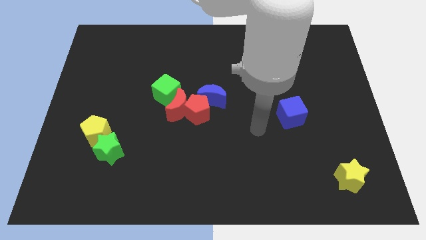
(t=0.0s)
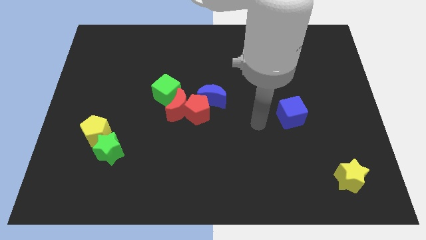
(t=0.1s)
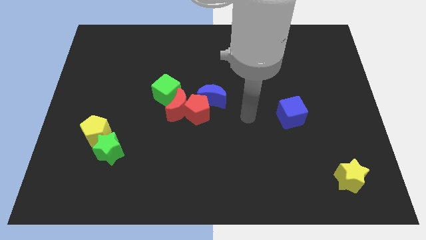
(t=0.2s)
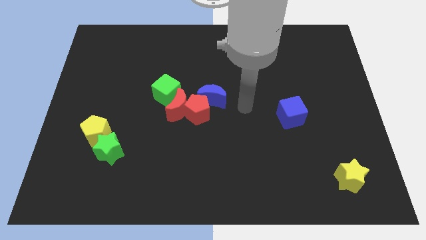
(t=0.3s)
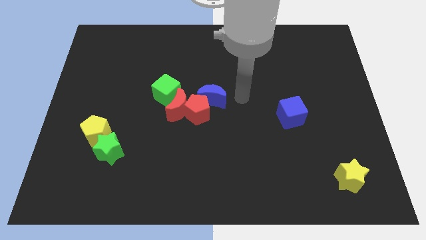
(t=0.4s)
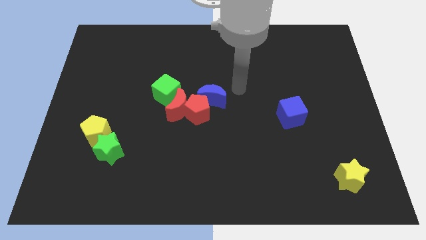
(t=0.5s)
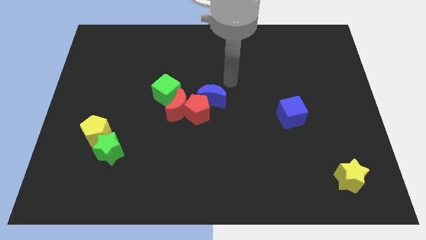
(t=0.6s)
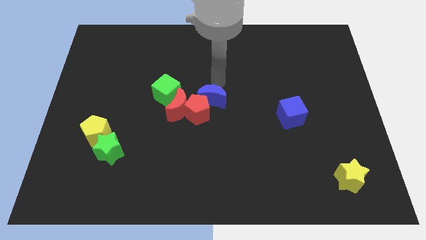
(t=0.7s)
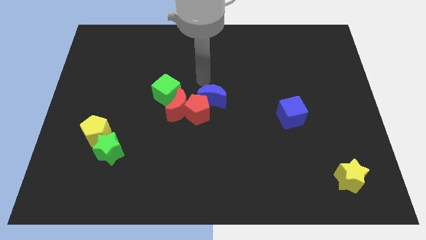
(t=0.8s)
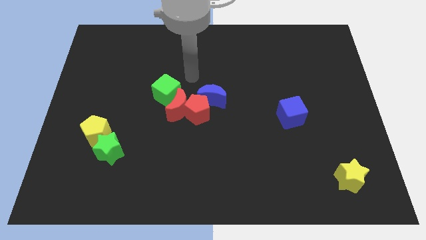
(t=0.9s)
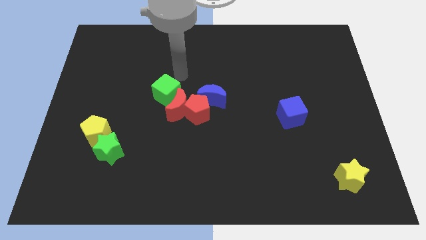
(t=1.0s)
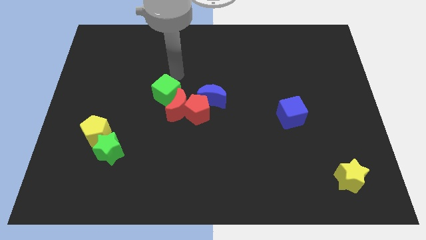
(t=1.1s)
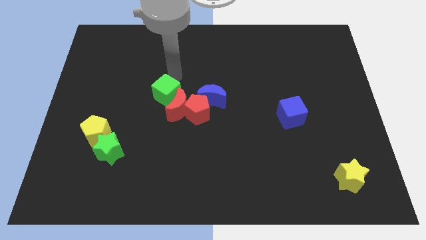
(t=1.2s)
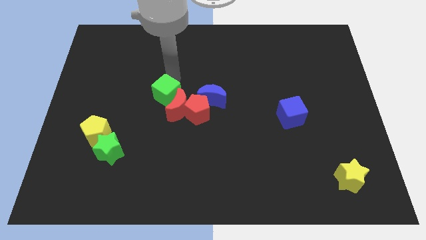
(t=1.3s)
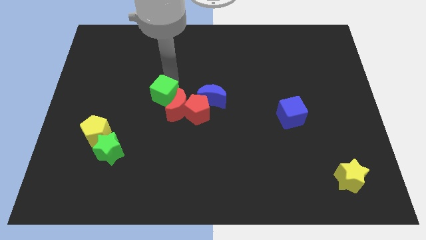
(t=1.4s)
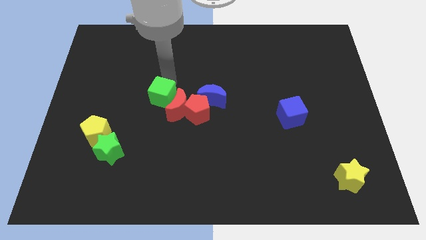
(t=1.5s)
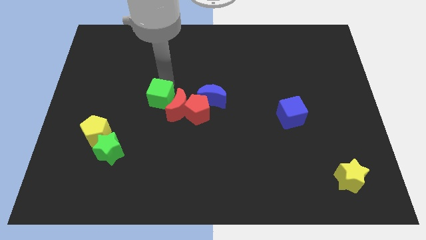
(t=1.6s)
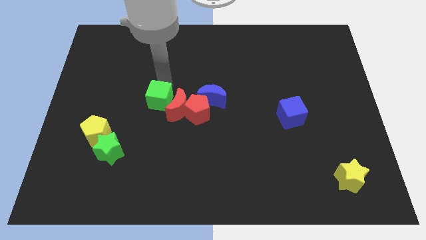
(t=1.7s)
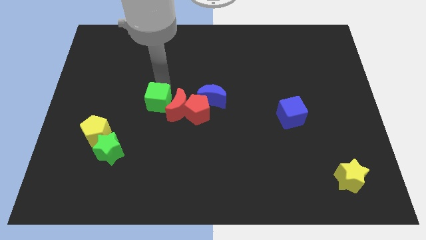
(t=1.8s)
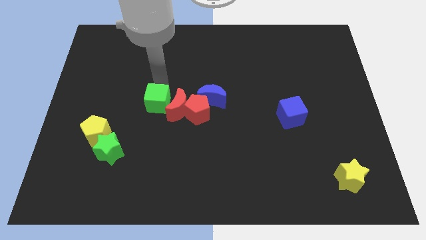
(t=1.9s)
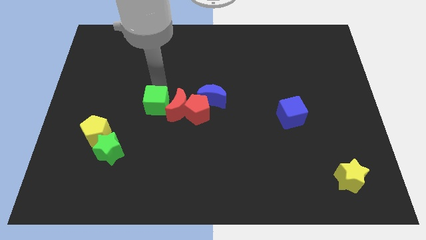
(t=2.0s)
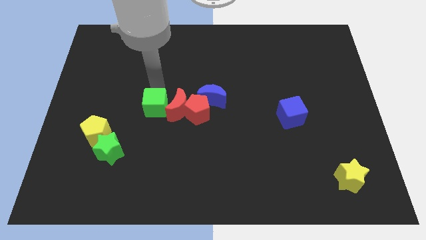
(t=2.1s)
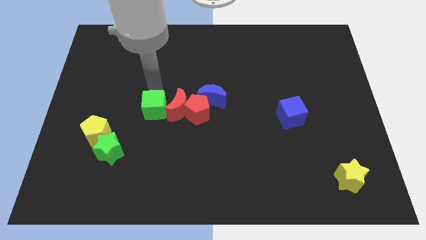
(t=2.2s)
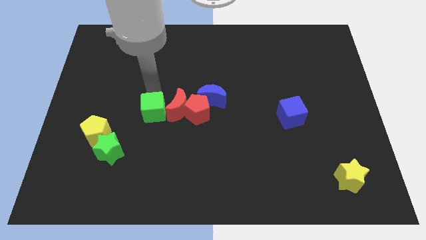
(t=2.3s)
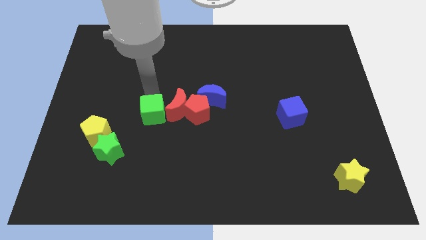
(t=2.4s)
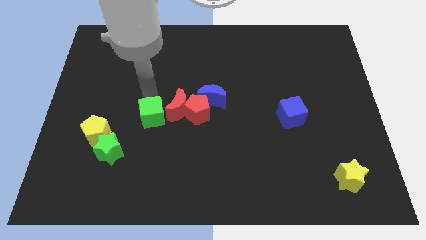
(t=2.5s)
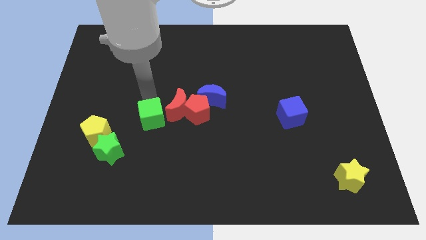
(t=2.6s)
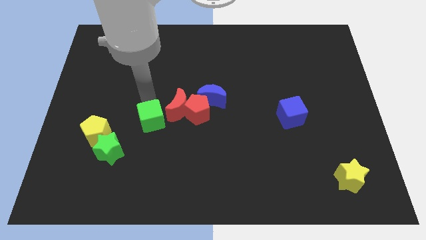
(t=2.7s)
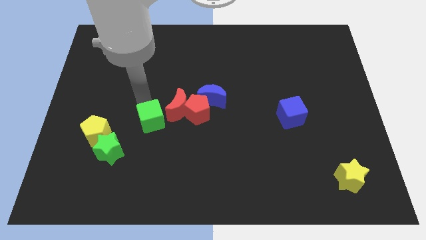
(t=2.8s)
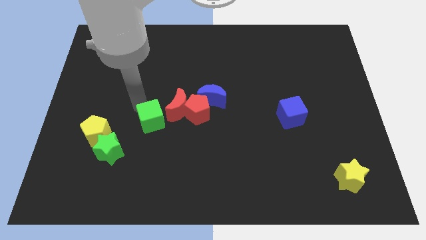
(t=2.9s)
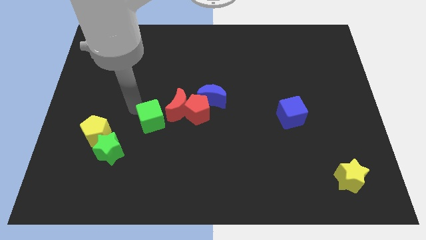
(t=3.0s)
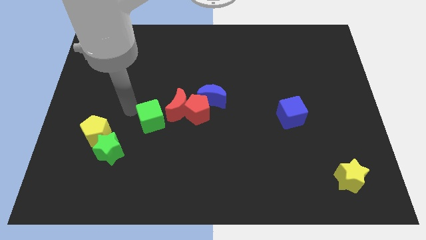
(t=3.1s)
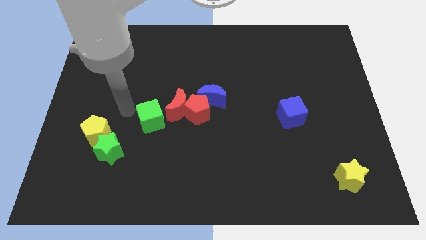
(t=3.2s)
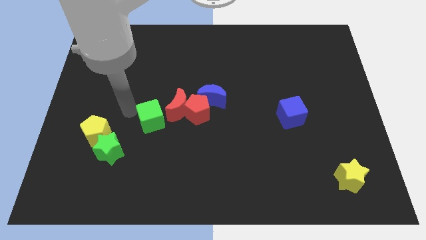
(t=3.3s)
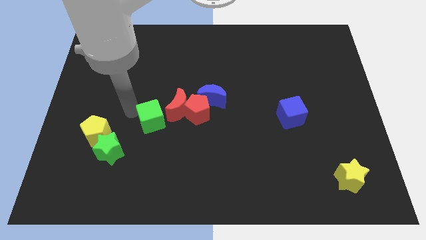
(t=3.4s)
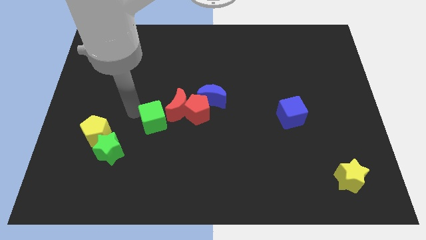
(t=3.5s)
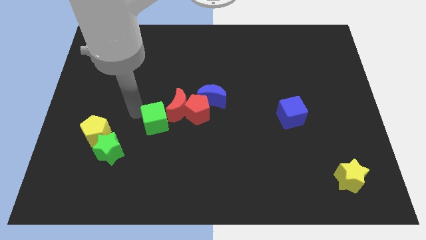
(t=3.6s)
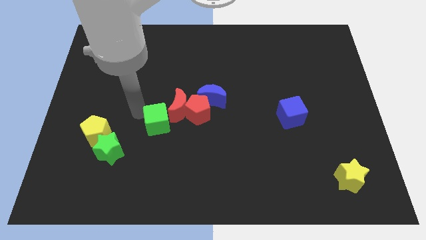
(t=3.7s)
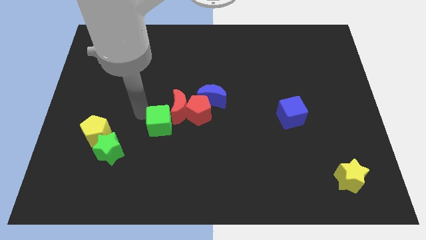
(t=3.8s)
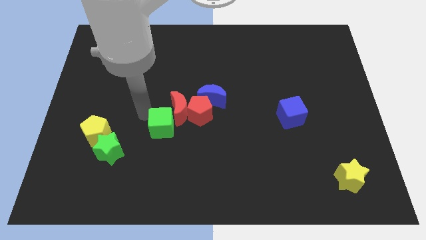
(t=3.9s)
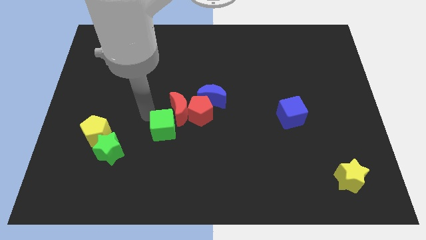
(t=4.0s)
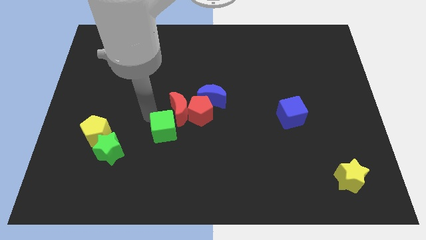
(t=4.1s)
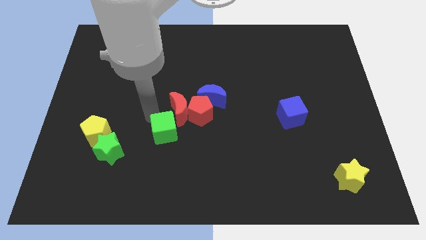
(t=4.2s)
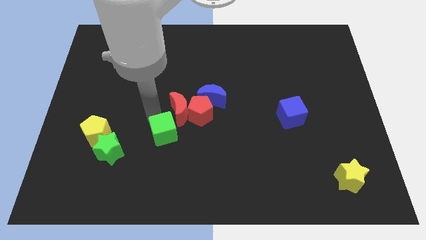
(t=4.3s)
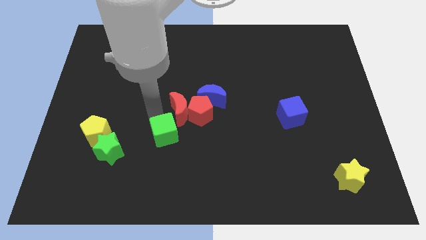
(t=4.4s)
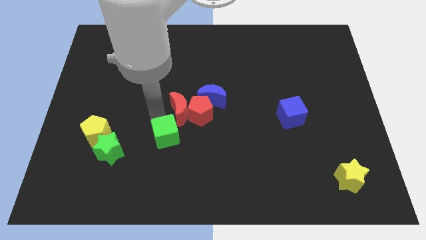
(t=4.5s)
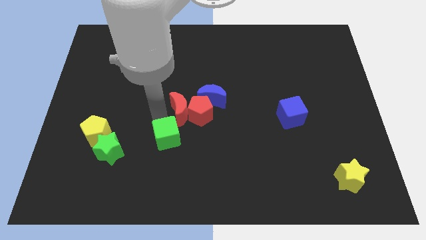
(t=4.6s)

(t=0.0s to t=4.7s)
move the green cube downwards and right diagonally a little

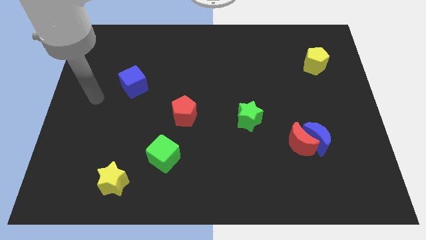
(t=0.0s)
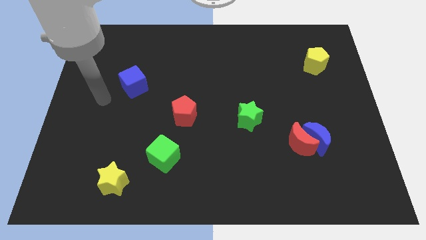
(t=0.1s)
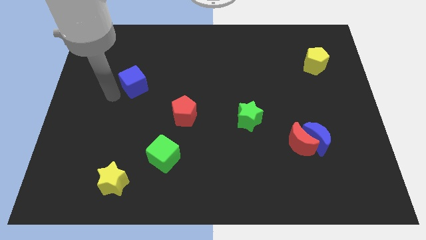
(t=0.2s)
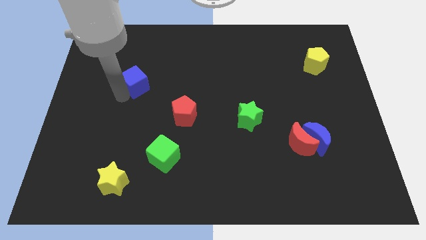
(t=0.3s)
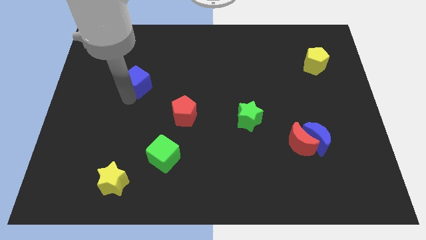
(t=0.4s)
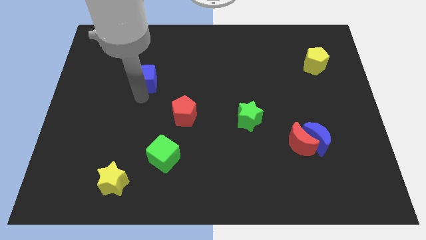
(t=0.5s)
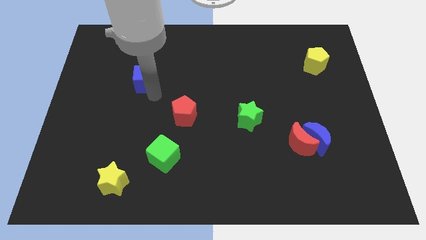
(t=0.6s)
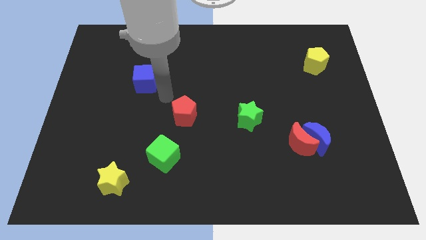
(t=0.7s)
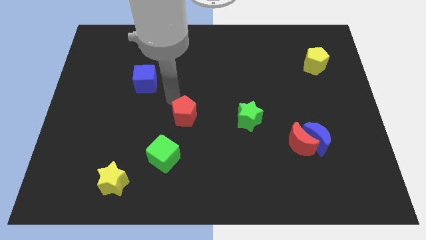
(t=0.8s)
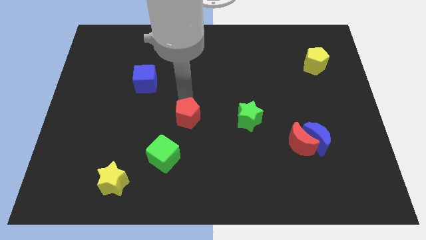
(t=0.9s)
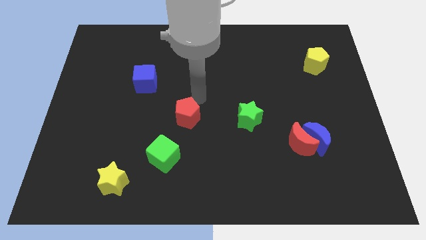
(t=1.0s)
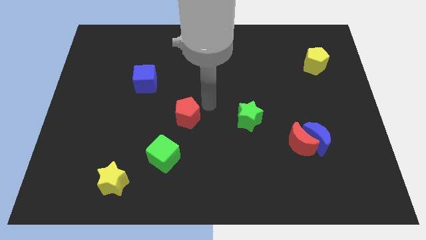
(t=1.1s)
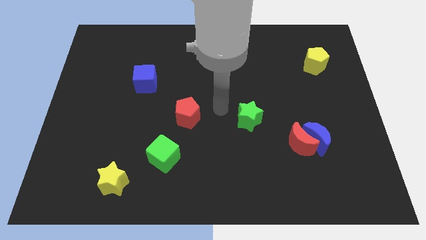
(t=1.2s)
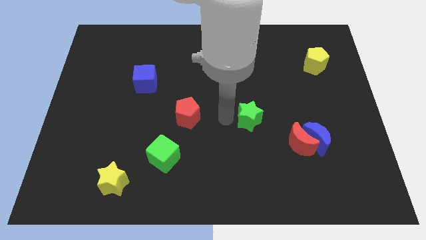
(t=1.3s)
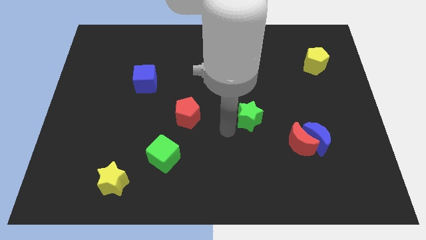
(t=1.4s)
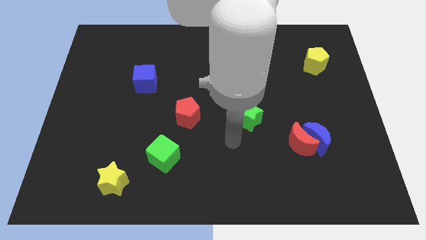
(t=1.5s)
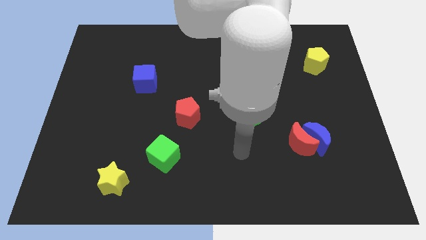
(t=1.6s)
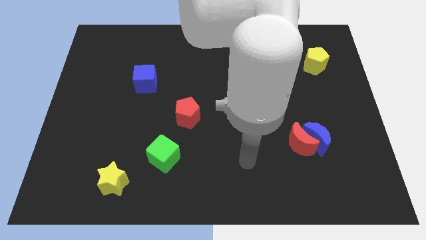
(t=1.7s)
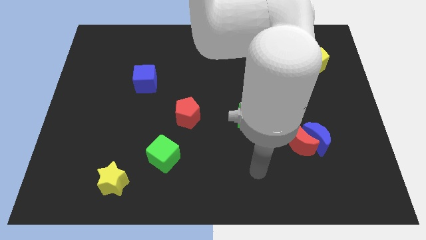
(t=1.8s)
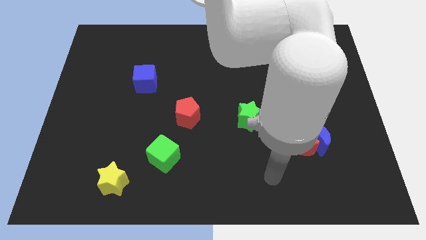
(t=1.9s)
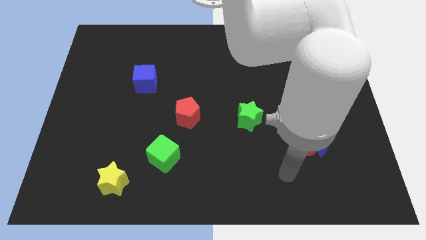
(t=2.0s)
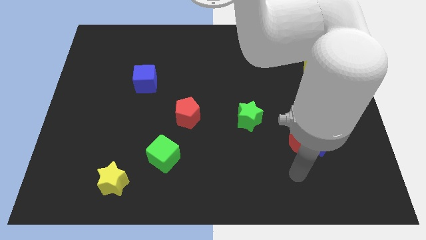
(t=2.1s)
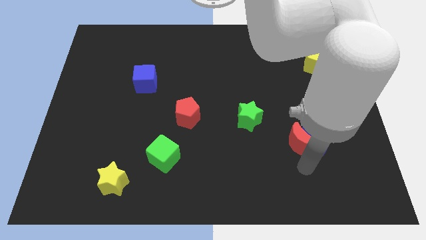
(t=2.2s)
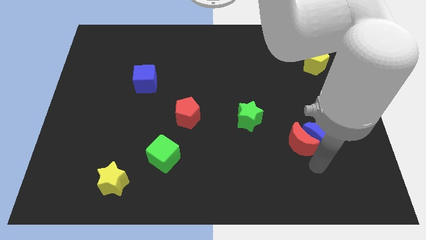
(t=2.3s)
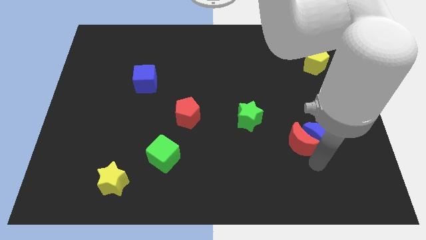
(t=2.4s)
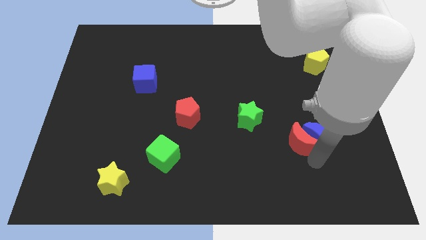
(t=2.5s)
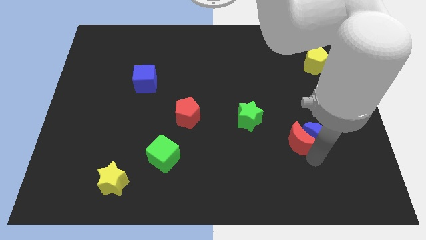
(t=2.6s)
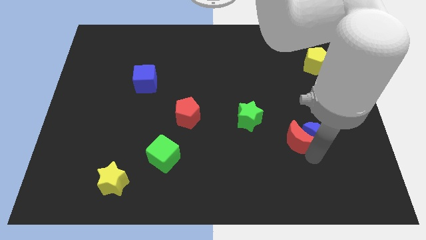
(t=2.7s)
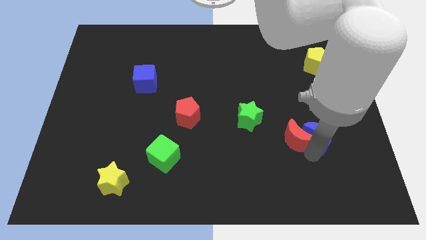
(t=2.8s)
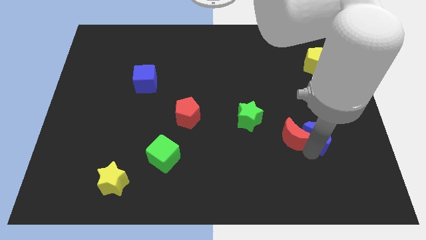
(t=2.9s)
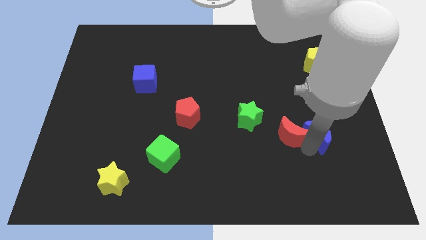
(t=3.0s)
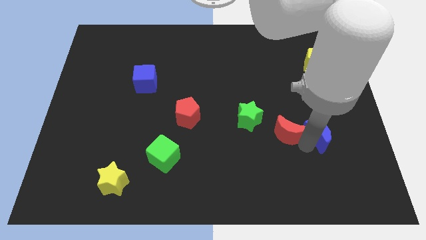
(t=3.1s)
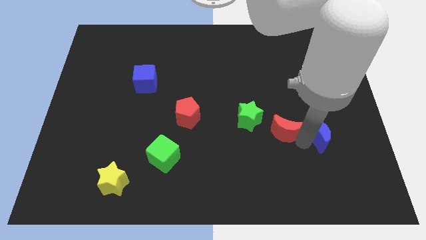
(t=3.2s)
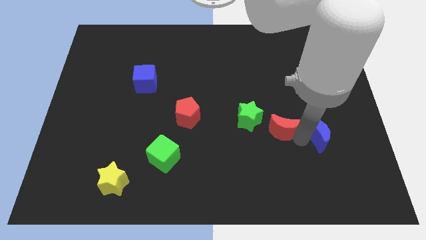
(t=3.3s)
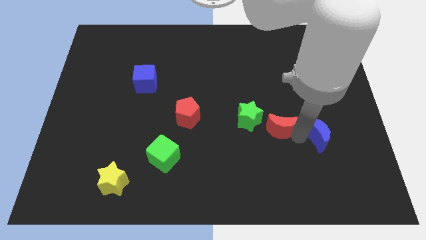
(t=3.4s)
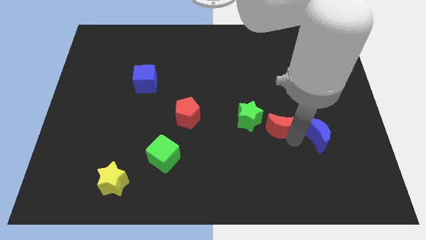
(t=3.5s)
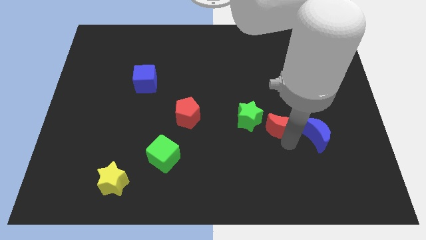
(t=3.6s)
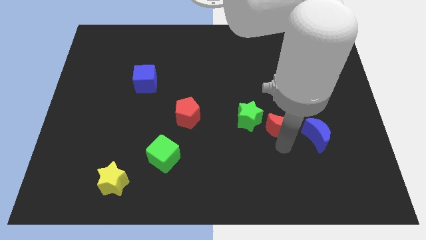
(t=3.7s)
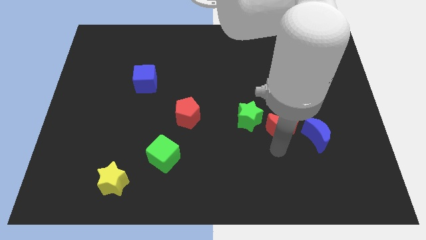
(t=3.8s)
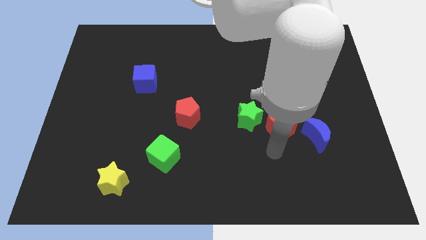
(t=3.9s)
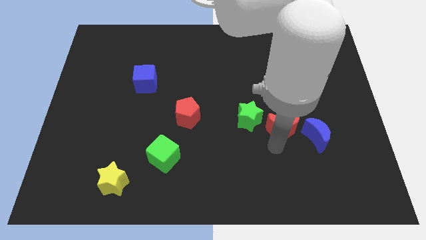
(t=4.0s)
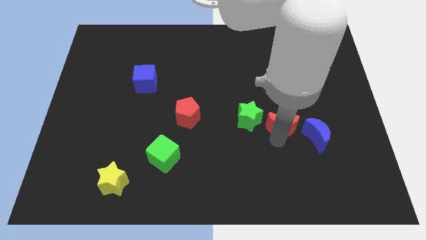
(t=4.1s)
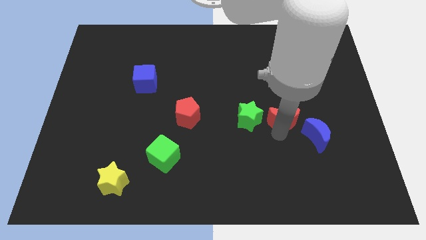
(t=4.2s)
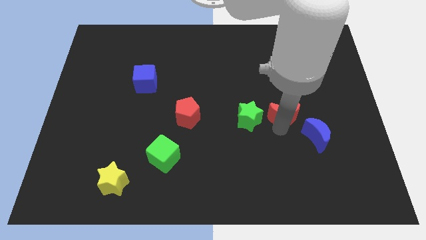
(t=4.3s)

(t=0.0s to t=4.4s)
slightly push the red moon up
